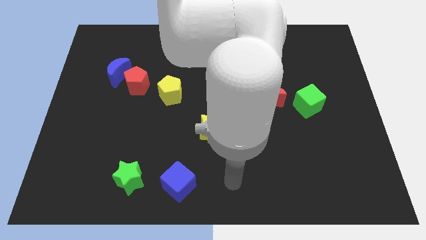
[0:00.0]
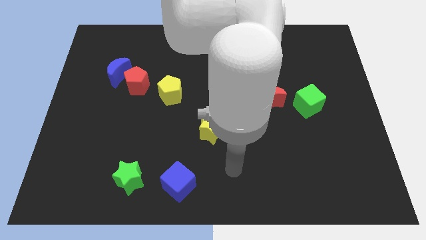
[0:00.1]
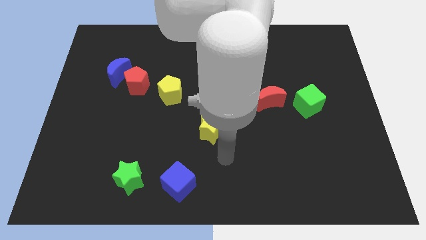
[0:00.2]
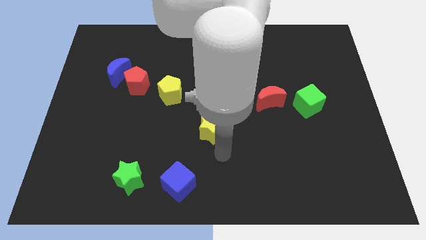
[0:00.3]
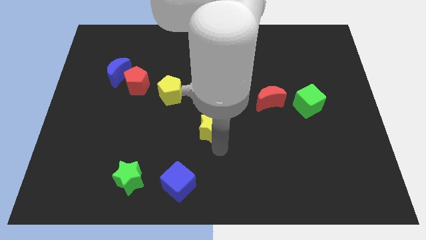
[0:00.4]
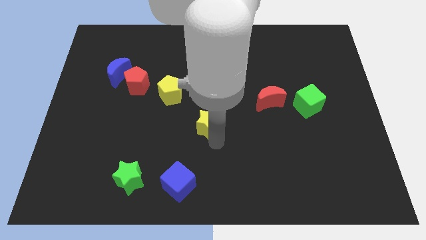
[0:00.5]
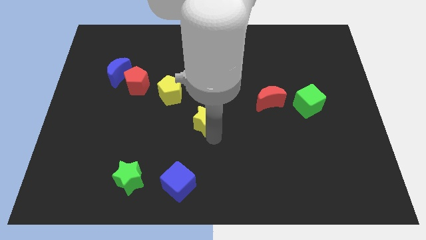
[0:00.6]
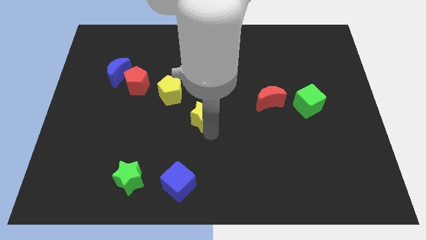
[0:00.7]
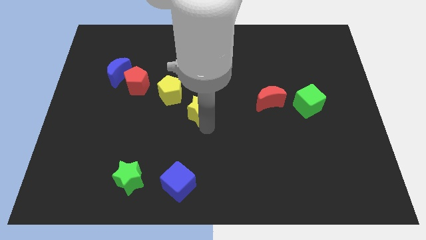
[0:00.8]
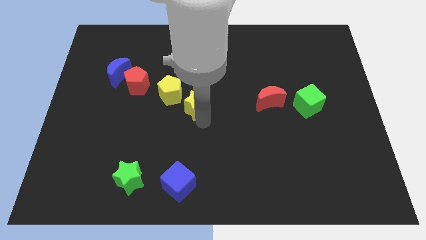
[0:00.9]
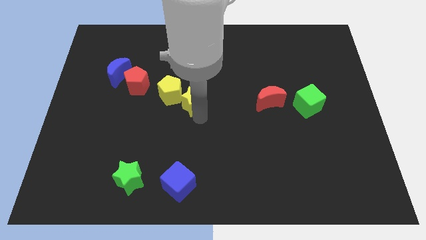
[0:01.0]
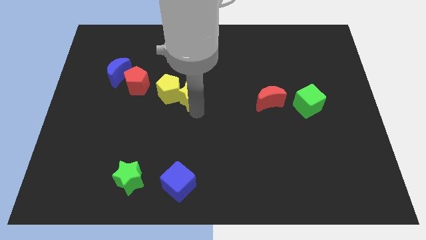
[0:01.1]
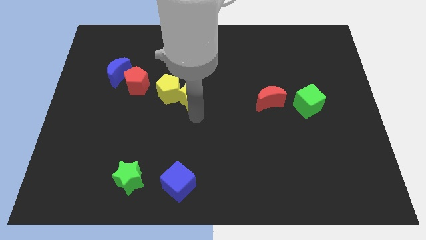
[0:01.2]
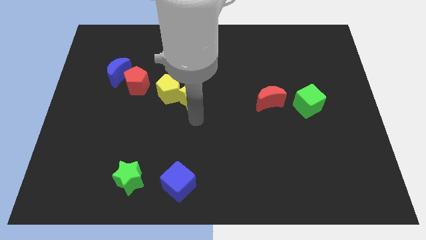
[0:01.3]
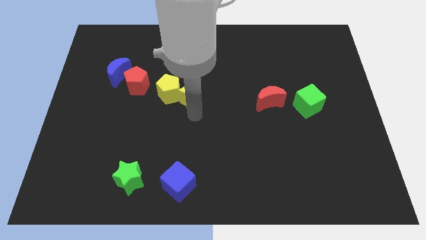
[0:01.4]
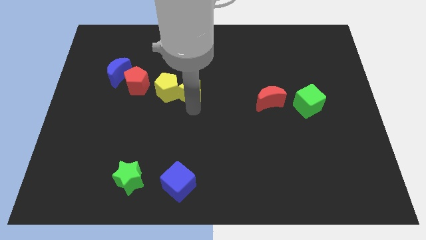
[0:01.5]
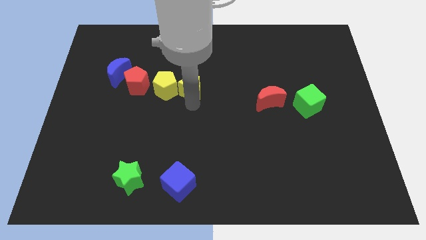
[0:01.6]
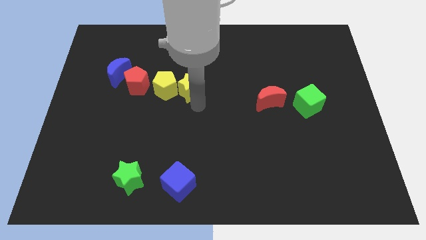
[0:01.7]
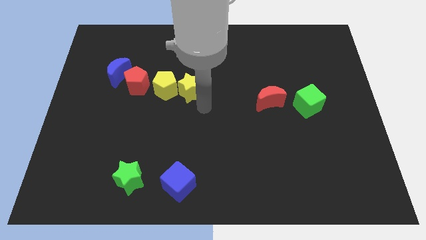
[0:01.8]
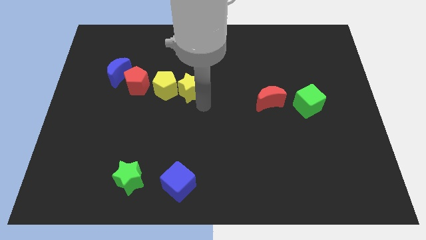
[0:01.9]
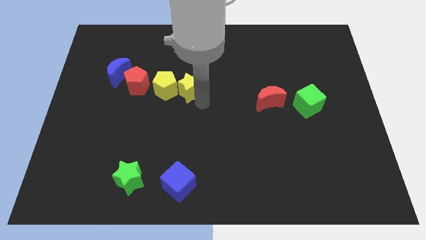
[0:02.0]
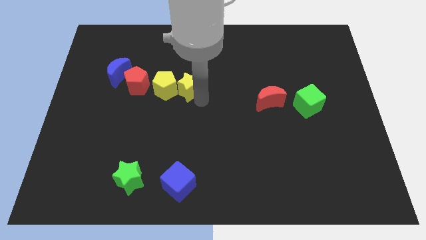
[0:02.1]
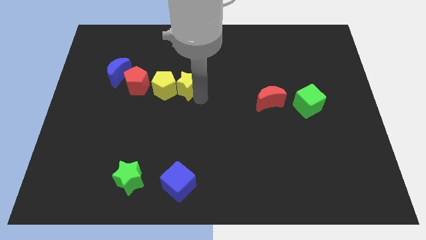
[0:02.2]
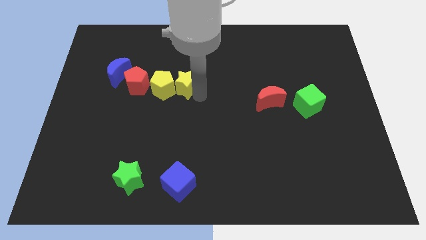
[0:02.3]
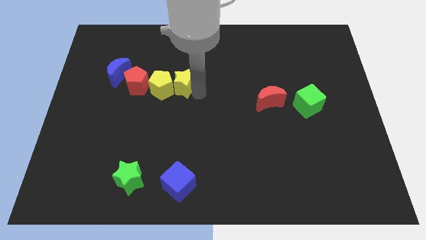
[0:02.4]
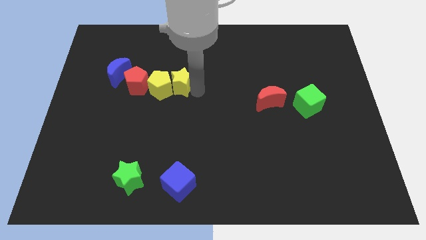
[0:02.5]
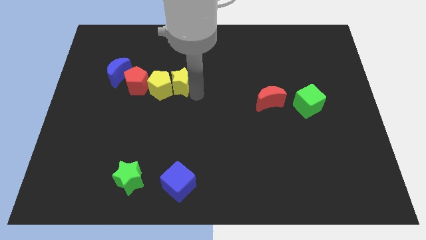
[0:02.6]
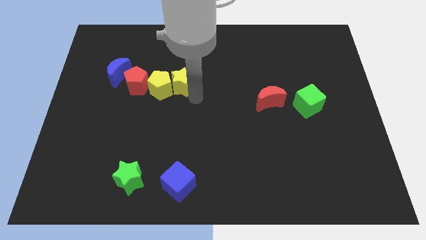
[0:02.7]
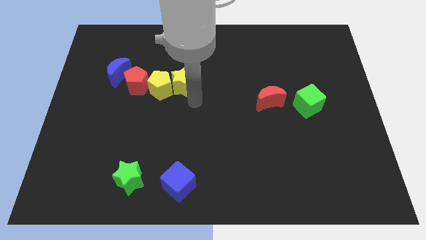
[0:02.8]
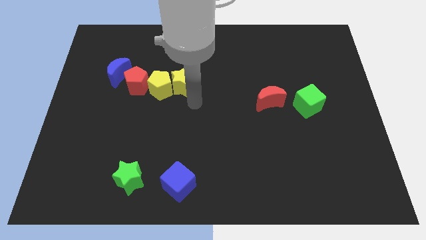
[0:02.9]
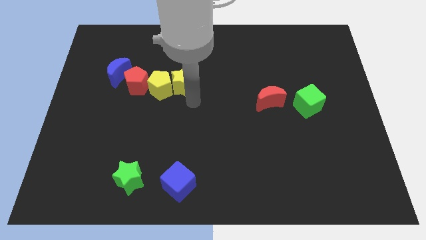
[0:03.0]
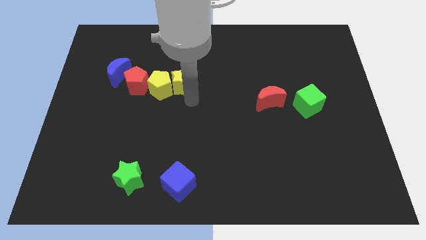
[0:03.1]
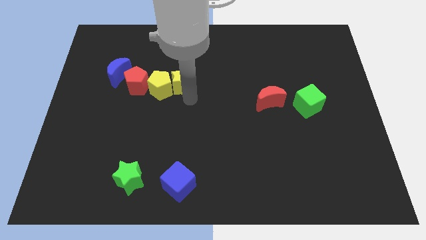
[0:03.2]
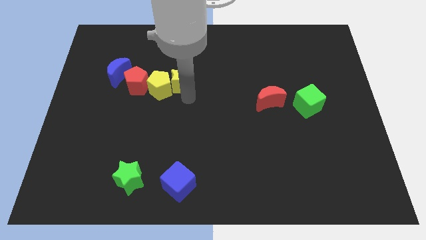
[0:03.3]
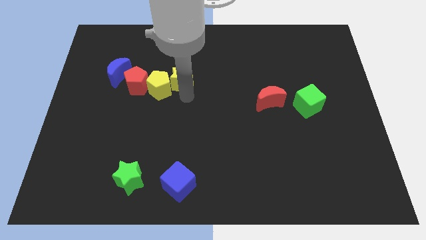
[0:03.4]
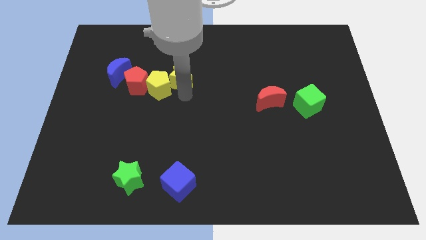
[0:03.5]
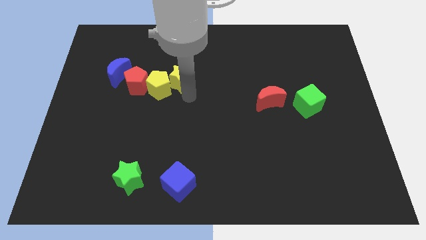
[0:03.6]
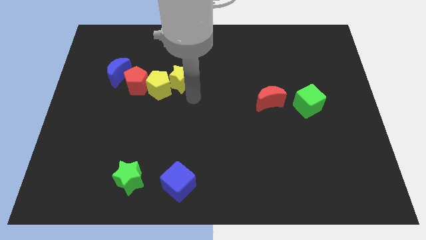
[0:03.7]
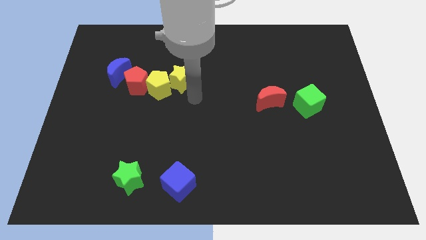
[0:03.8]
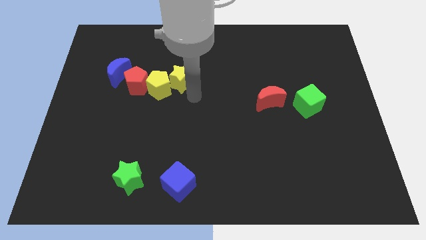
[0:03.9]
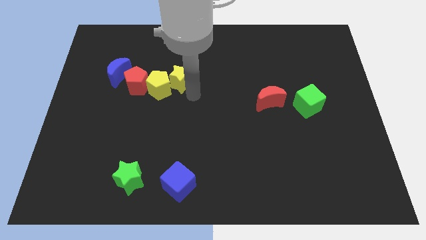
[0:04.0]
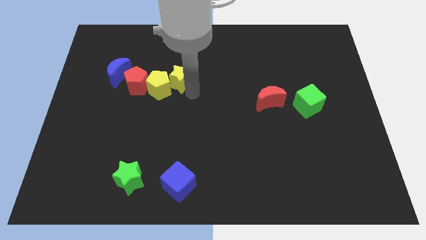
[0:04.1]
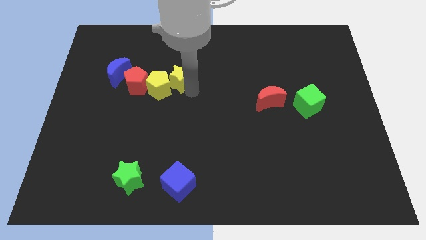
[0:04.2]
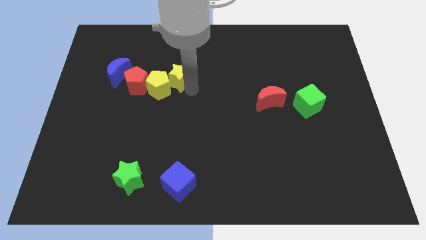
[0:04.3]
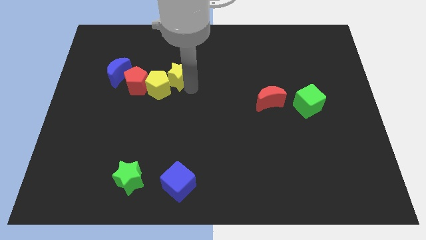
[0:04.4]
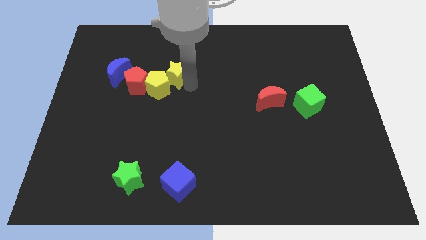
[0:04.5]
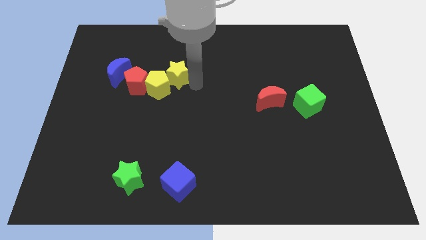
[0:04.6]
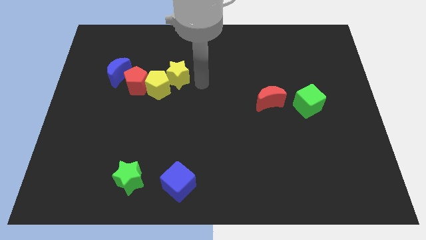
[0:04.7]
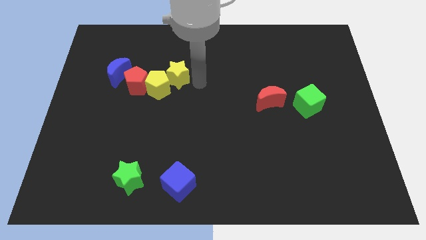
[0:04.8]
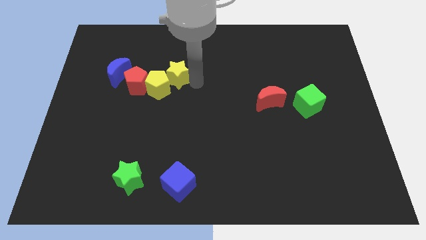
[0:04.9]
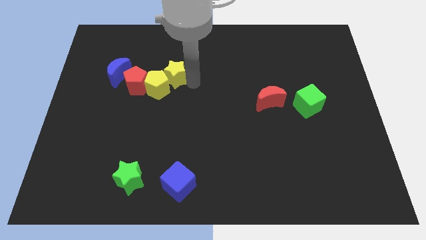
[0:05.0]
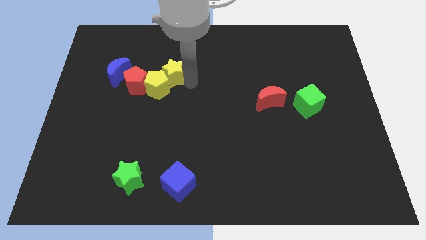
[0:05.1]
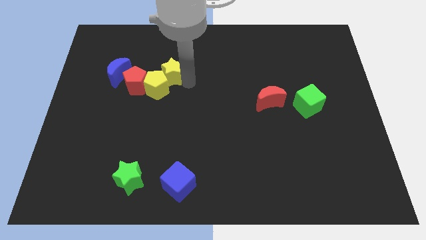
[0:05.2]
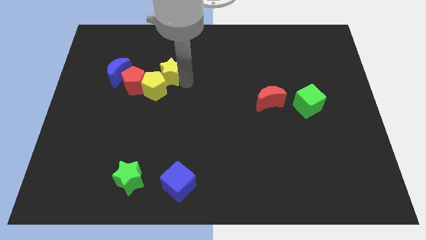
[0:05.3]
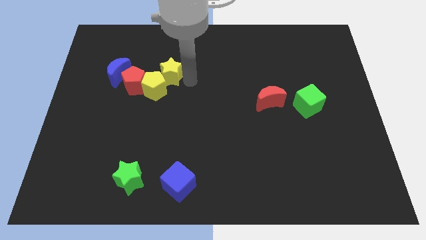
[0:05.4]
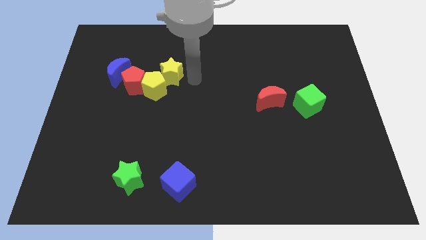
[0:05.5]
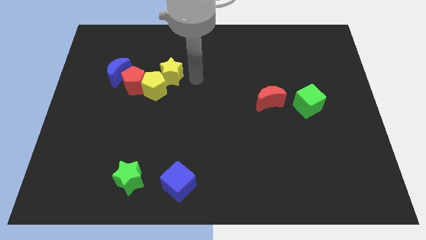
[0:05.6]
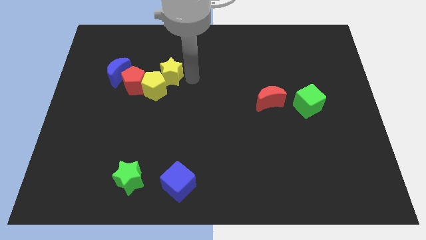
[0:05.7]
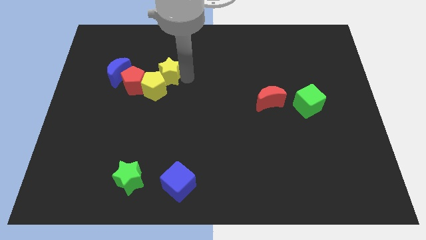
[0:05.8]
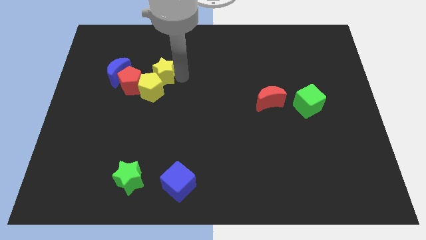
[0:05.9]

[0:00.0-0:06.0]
push the yellow star up and to the left

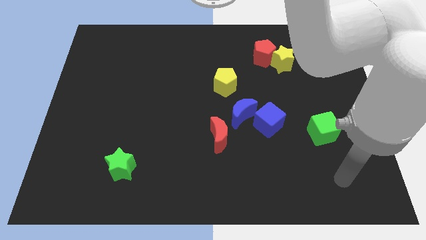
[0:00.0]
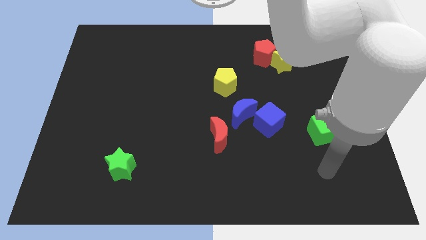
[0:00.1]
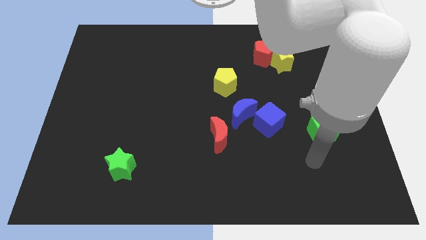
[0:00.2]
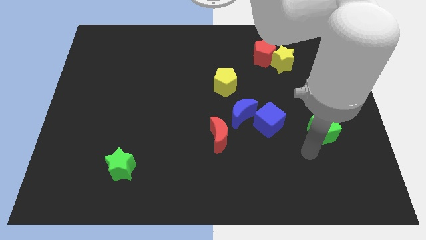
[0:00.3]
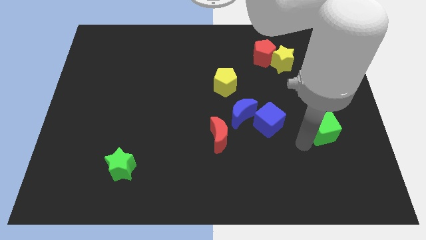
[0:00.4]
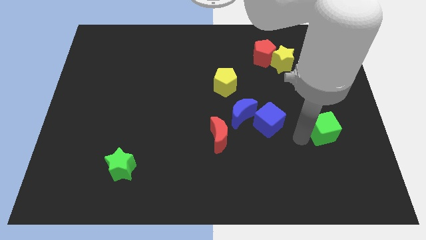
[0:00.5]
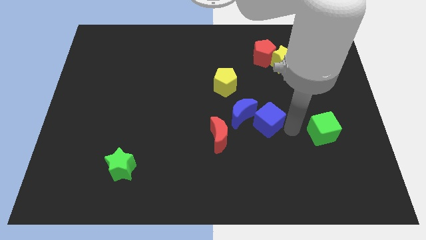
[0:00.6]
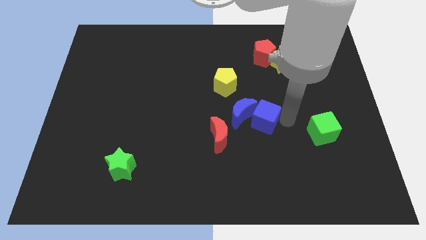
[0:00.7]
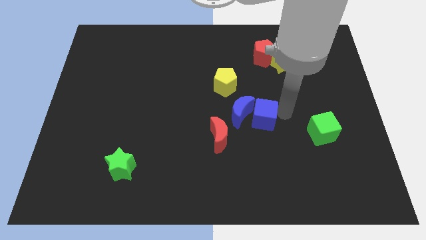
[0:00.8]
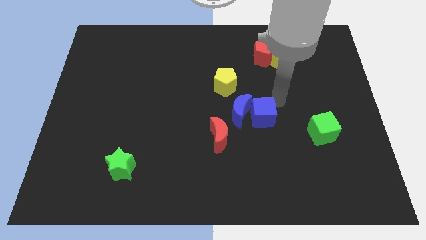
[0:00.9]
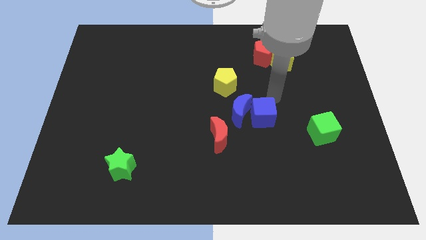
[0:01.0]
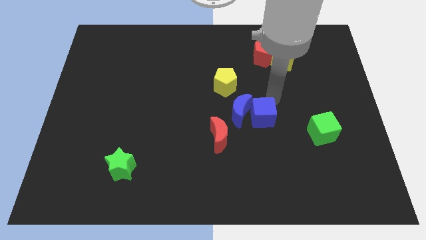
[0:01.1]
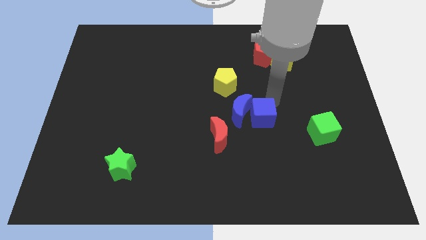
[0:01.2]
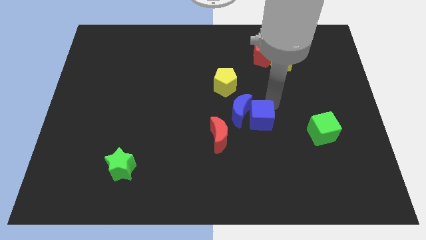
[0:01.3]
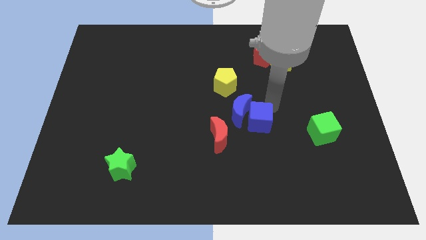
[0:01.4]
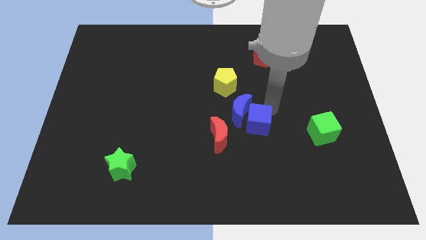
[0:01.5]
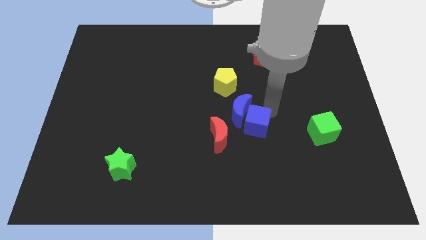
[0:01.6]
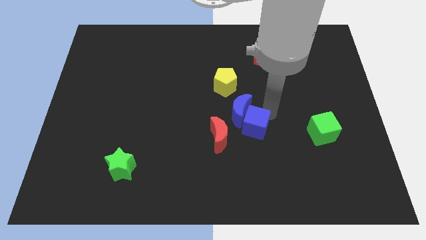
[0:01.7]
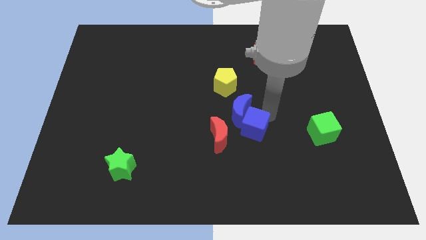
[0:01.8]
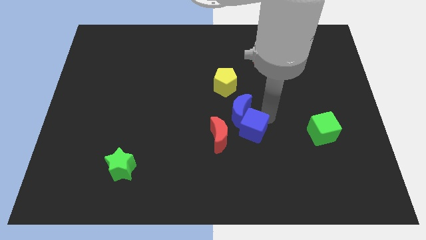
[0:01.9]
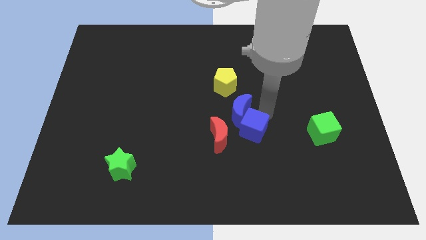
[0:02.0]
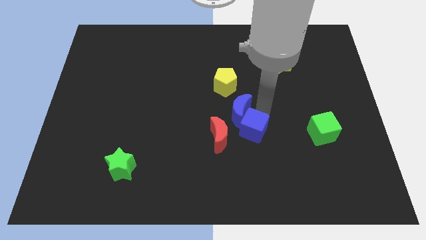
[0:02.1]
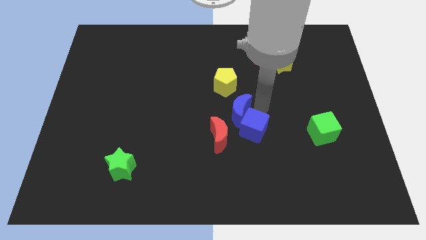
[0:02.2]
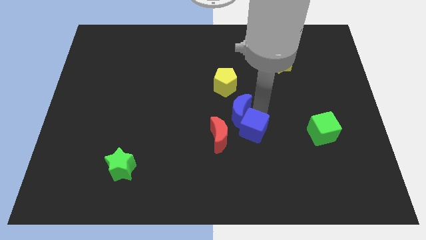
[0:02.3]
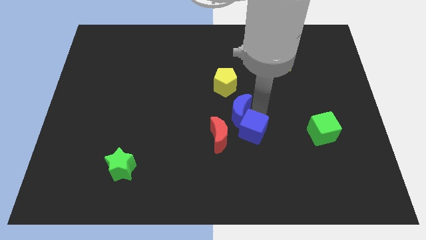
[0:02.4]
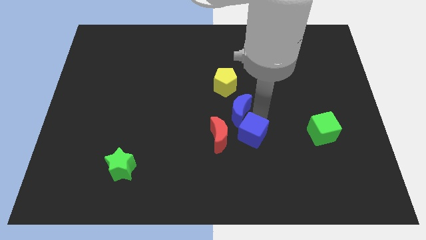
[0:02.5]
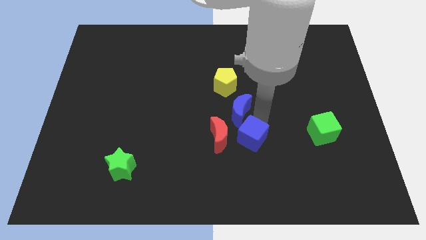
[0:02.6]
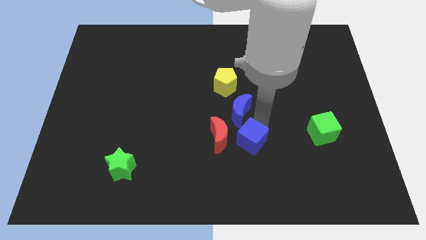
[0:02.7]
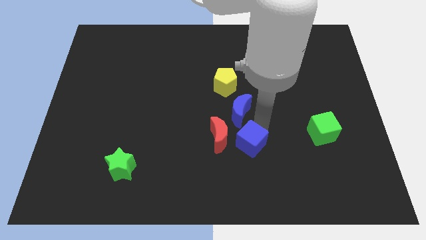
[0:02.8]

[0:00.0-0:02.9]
push the blue cube down and to the left slightly
